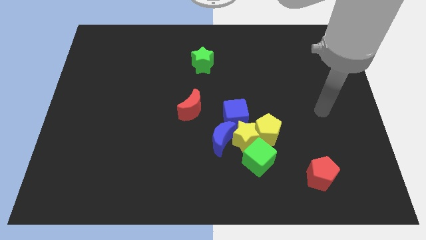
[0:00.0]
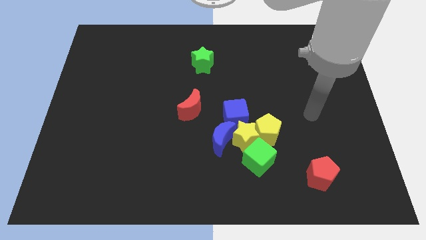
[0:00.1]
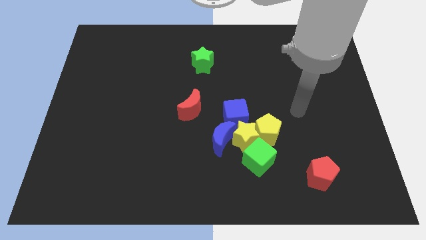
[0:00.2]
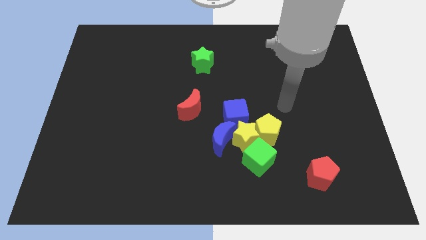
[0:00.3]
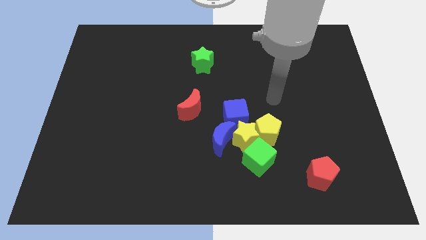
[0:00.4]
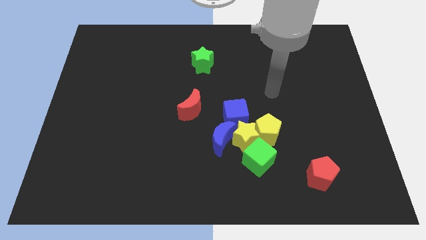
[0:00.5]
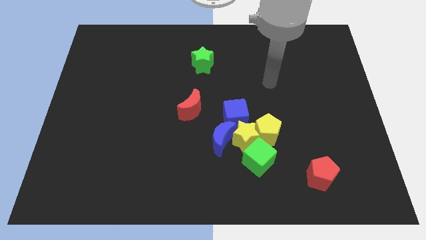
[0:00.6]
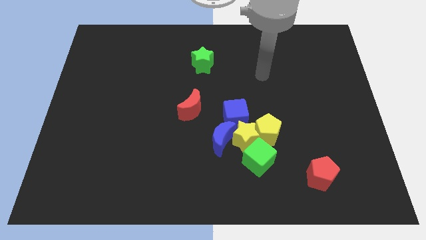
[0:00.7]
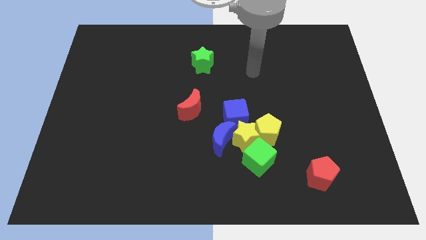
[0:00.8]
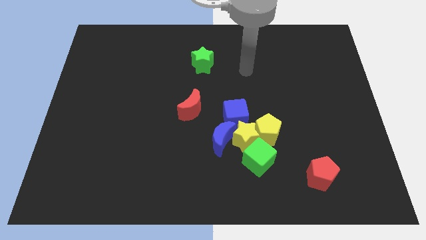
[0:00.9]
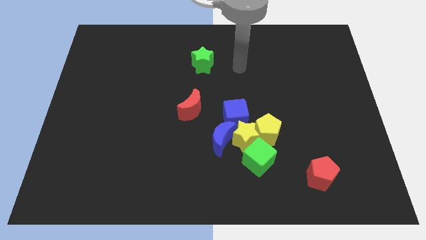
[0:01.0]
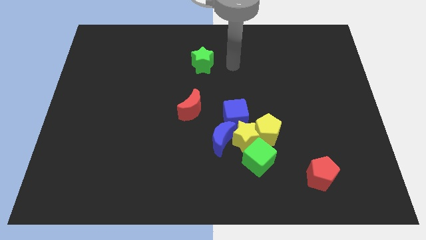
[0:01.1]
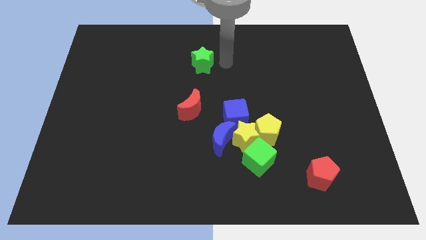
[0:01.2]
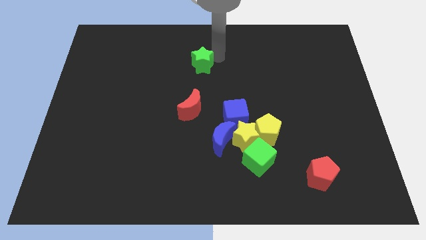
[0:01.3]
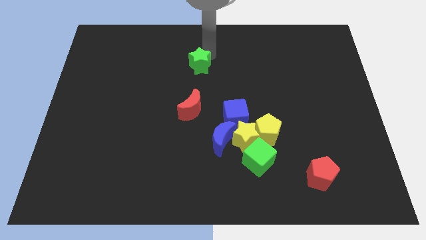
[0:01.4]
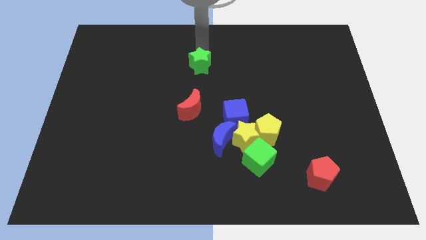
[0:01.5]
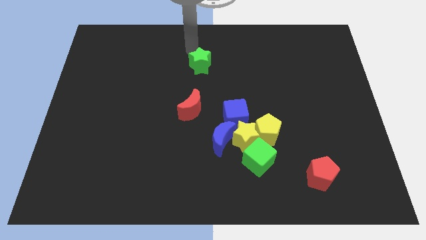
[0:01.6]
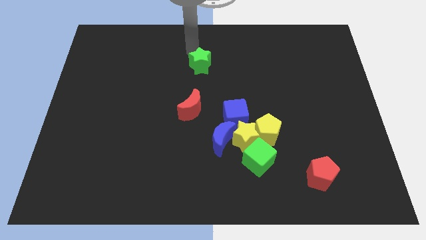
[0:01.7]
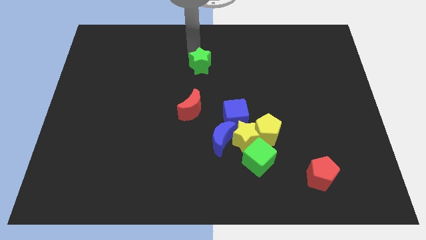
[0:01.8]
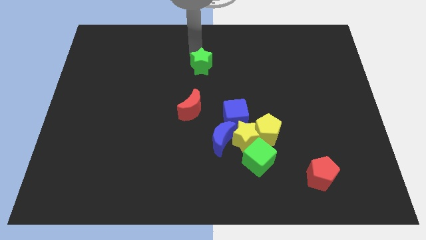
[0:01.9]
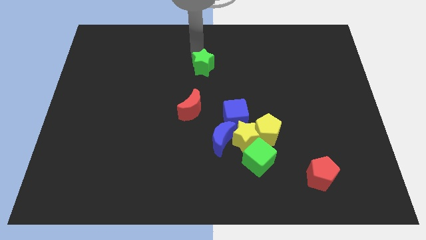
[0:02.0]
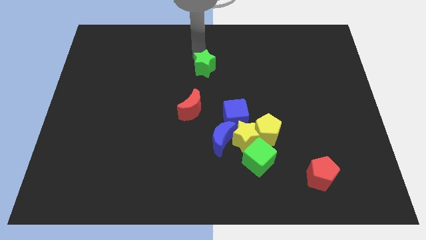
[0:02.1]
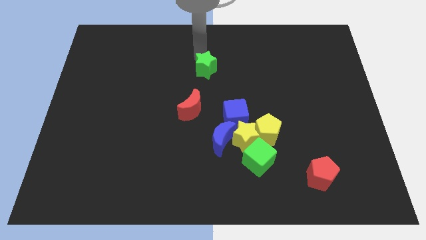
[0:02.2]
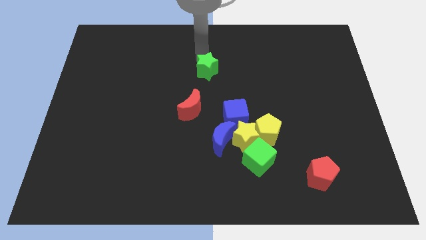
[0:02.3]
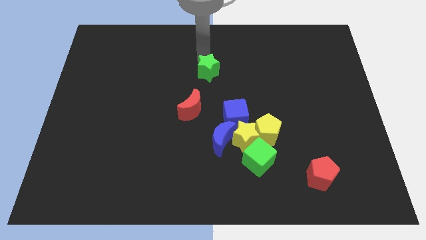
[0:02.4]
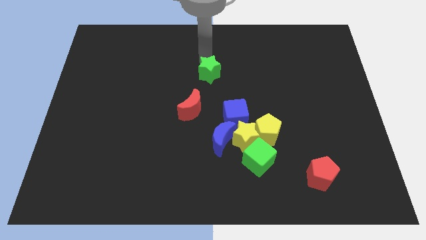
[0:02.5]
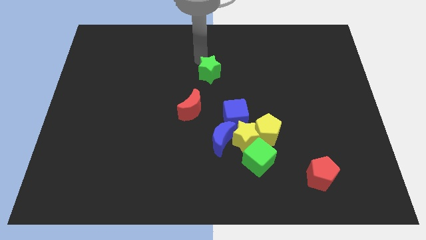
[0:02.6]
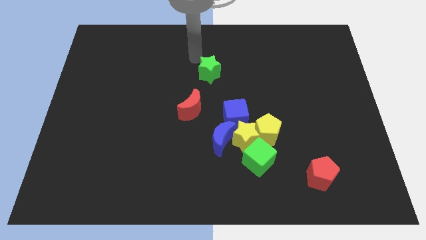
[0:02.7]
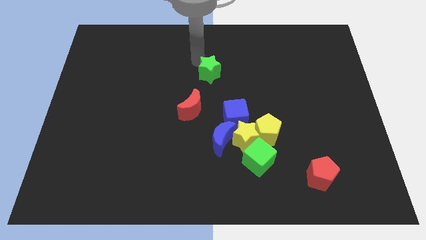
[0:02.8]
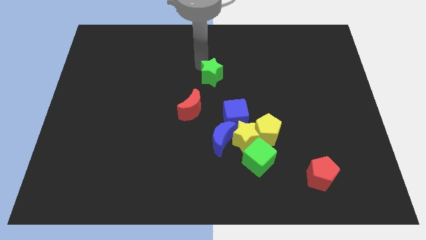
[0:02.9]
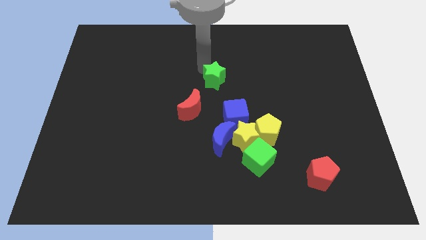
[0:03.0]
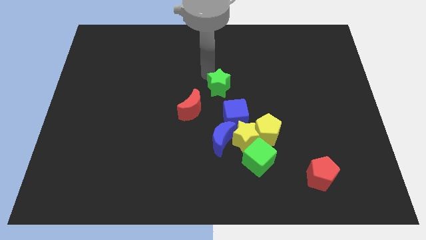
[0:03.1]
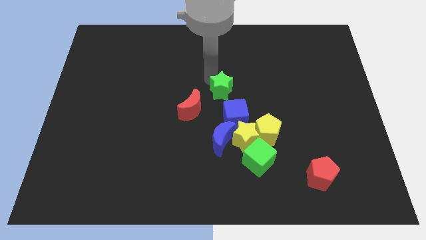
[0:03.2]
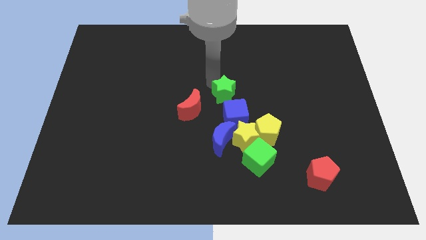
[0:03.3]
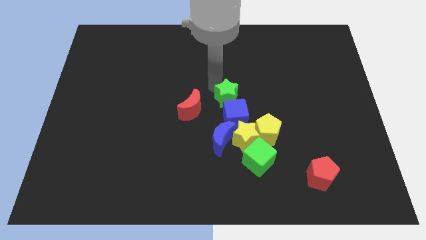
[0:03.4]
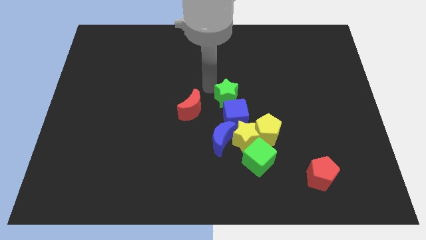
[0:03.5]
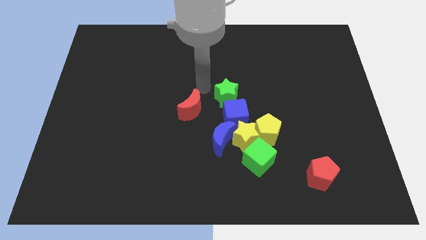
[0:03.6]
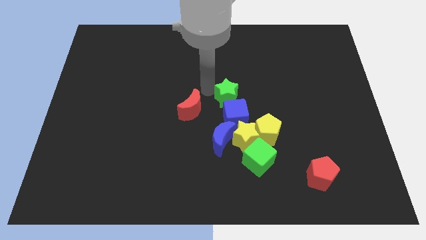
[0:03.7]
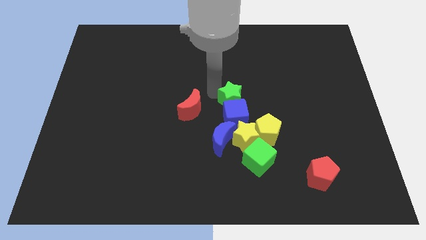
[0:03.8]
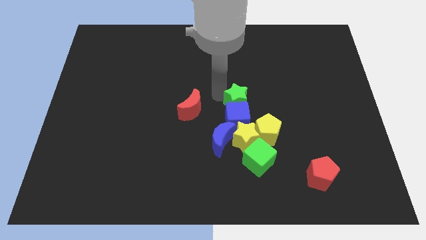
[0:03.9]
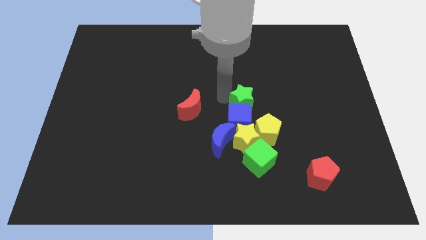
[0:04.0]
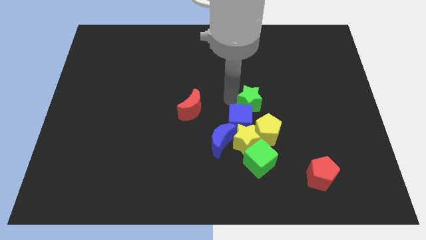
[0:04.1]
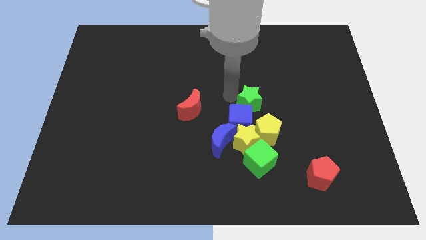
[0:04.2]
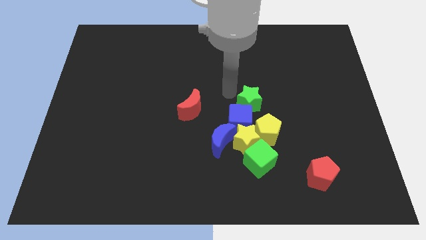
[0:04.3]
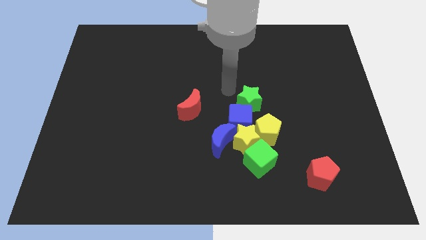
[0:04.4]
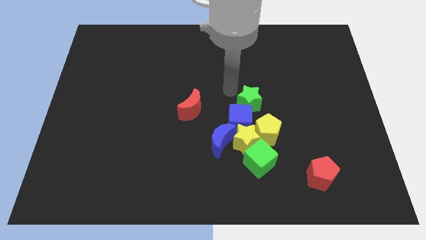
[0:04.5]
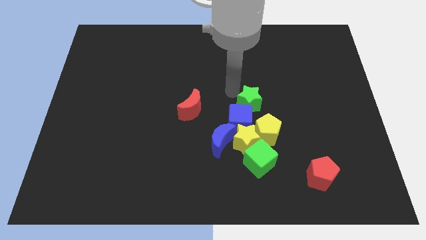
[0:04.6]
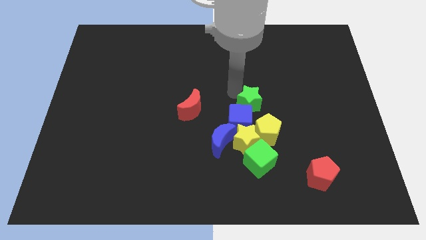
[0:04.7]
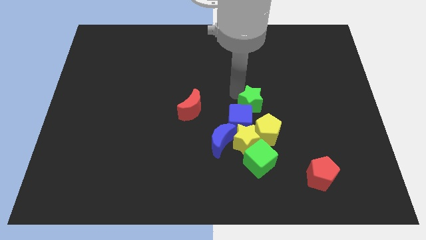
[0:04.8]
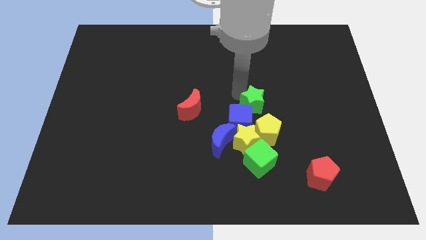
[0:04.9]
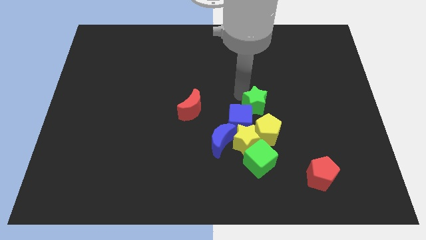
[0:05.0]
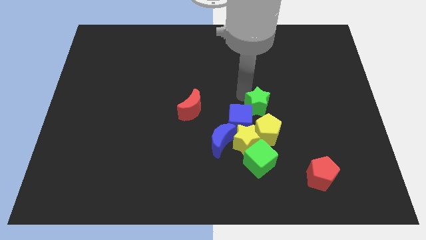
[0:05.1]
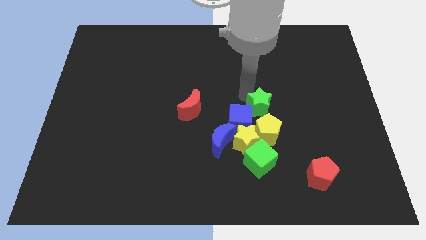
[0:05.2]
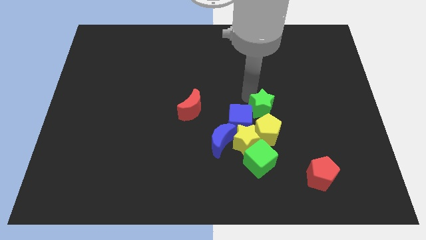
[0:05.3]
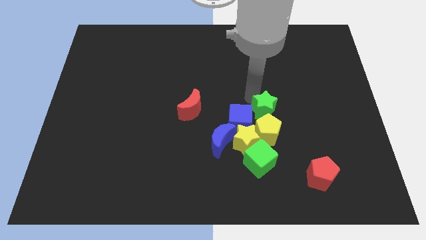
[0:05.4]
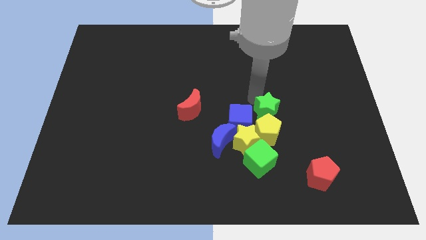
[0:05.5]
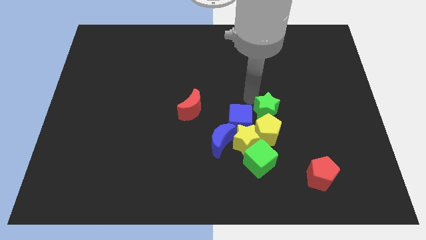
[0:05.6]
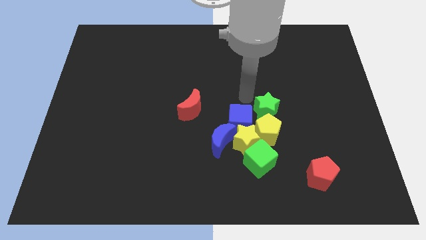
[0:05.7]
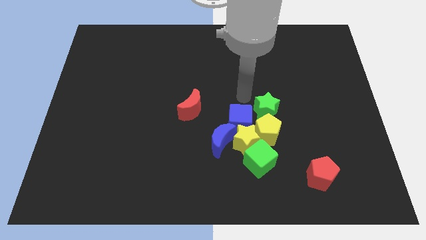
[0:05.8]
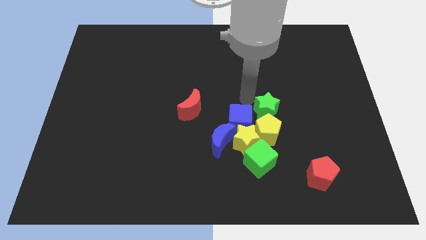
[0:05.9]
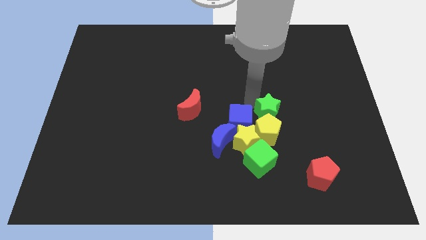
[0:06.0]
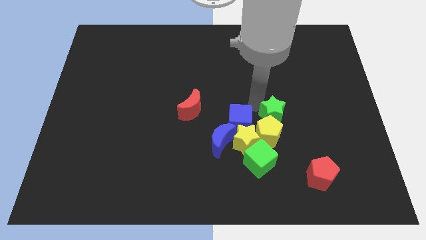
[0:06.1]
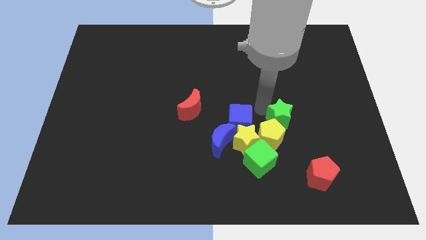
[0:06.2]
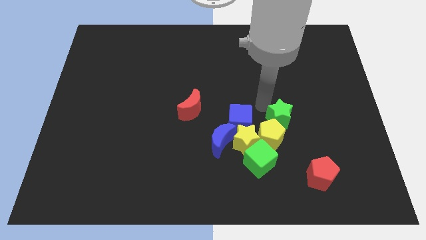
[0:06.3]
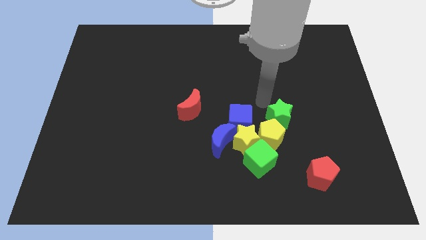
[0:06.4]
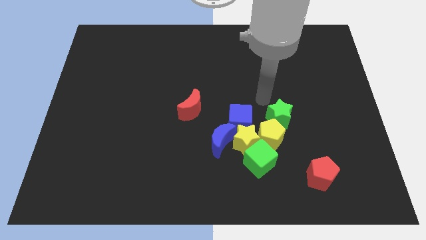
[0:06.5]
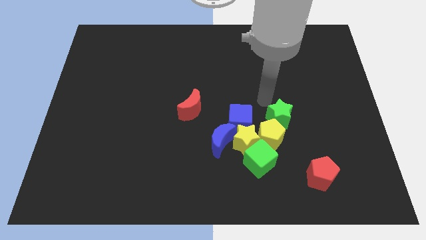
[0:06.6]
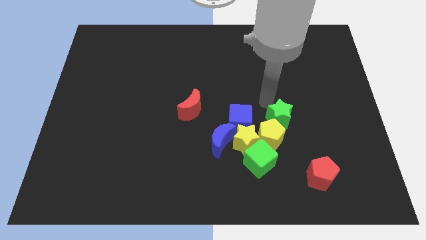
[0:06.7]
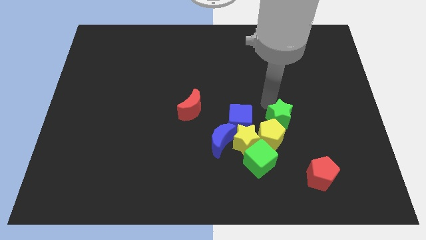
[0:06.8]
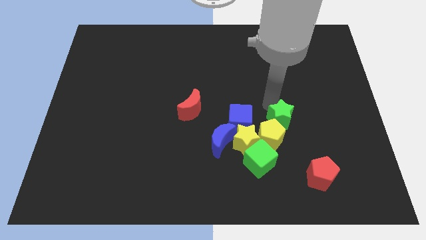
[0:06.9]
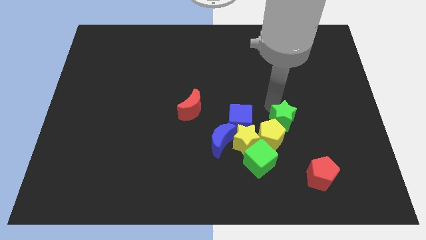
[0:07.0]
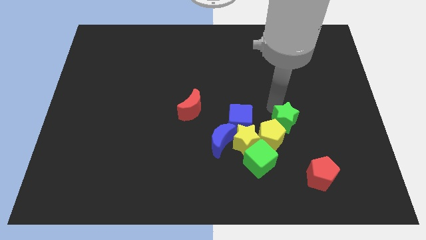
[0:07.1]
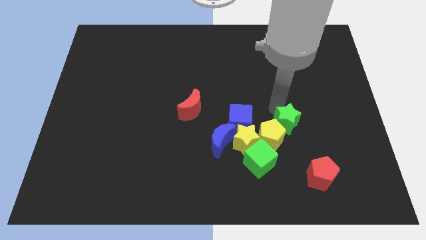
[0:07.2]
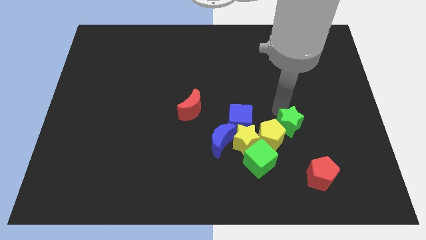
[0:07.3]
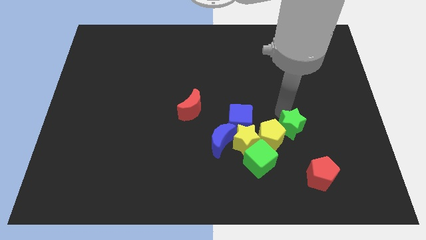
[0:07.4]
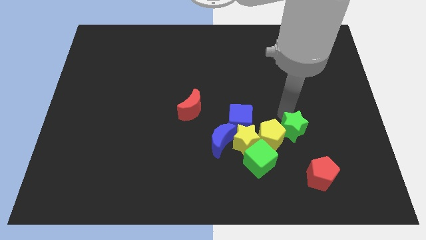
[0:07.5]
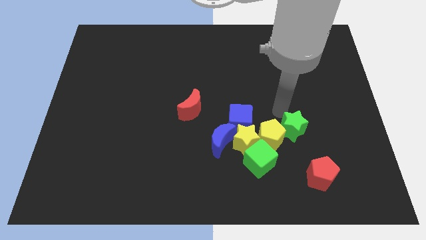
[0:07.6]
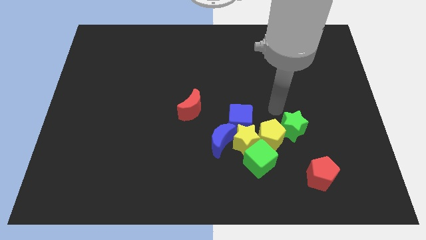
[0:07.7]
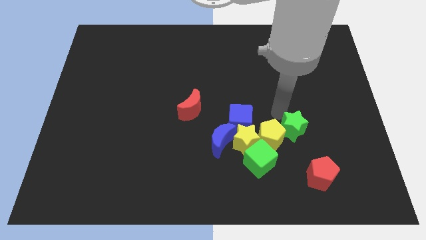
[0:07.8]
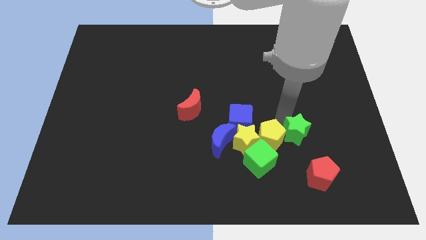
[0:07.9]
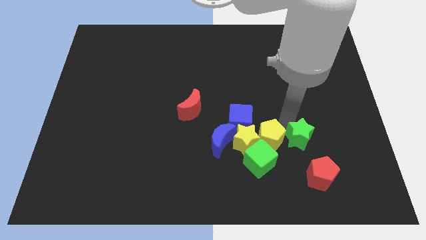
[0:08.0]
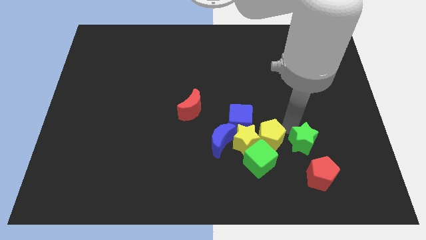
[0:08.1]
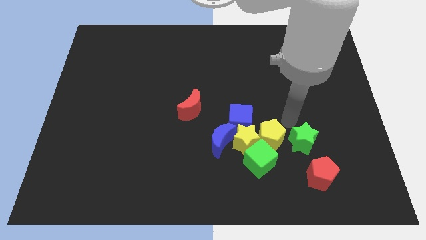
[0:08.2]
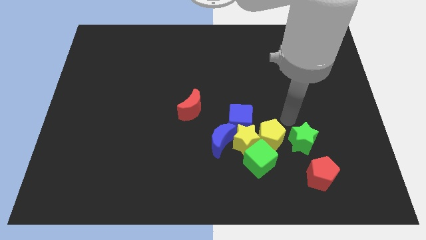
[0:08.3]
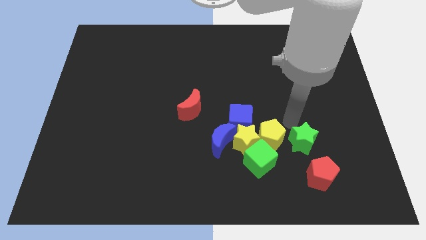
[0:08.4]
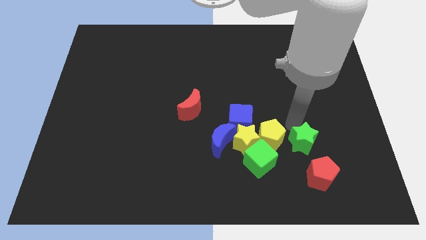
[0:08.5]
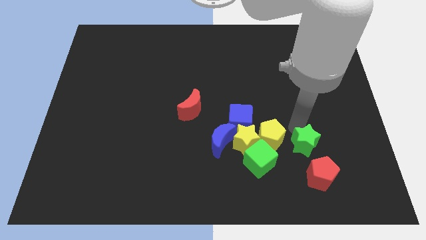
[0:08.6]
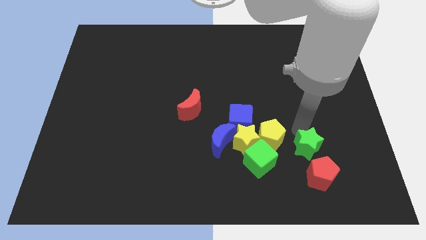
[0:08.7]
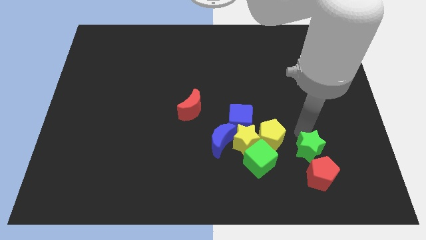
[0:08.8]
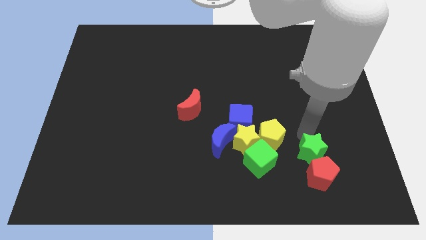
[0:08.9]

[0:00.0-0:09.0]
put the green star towards the red pentagon
